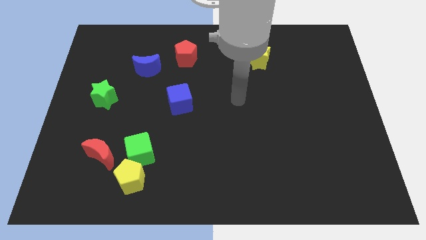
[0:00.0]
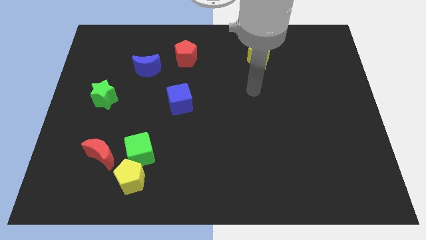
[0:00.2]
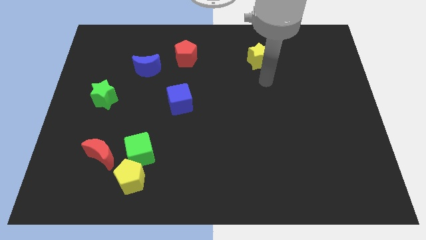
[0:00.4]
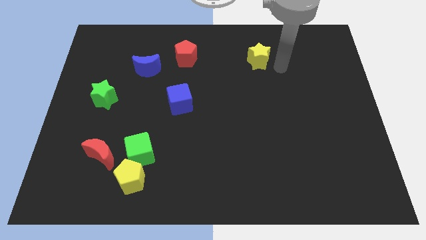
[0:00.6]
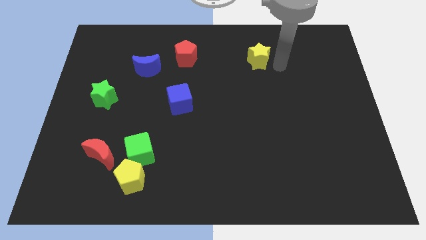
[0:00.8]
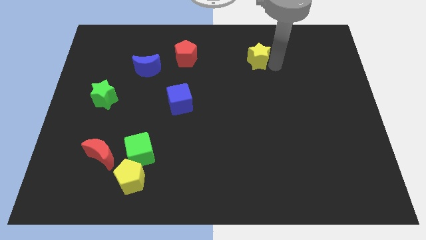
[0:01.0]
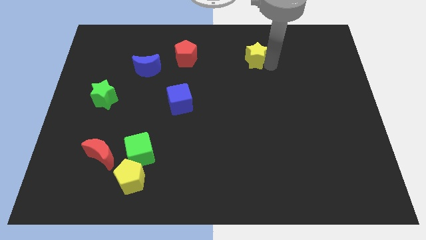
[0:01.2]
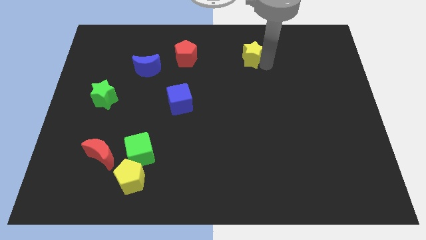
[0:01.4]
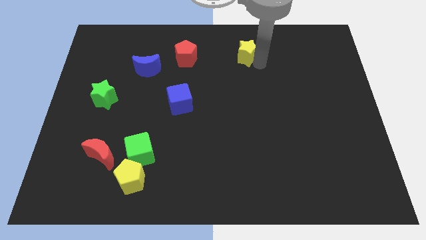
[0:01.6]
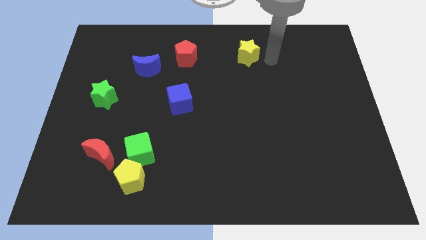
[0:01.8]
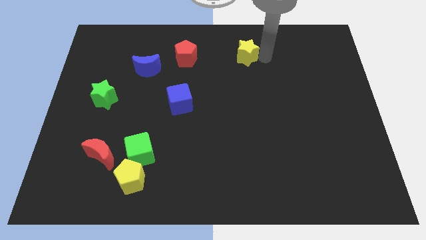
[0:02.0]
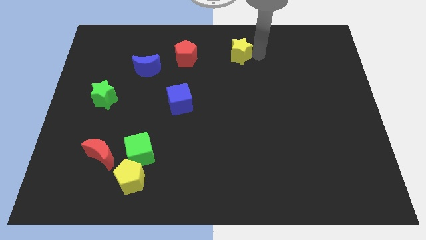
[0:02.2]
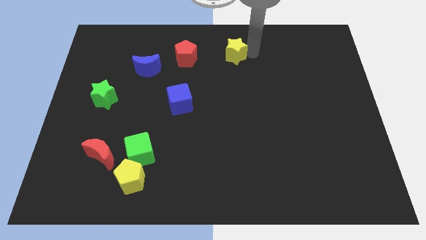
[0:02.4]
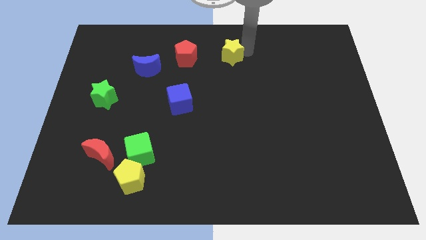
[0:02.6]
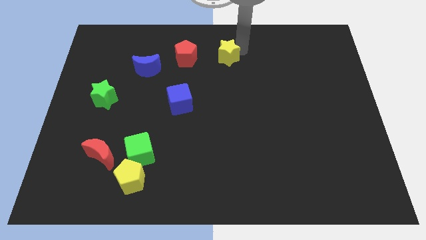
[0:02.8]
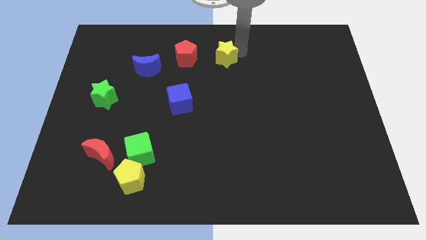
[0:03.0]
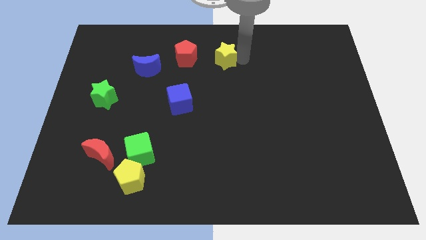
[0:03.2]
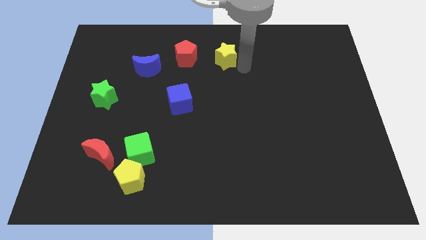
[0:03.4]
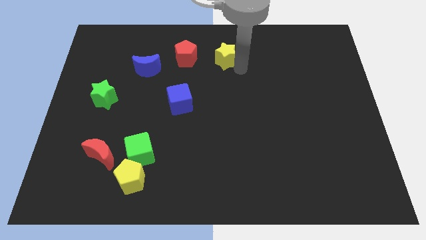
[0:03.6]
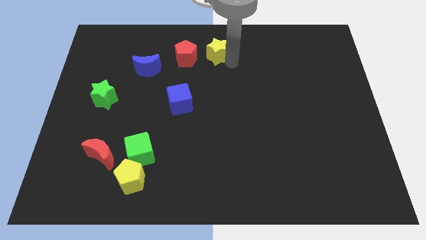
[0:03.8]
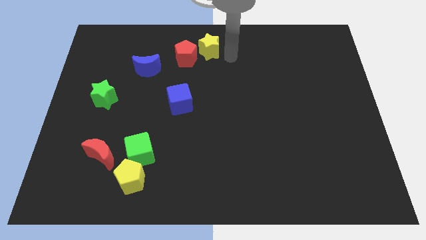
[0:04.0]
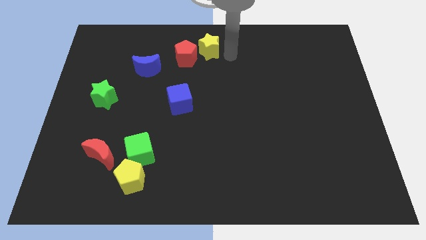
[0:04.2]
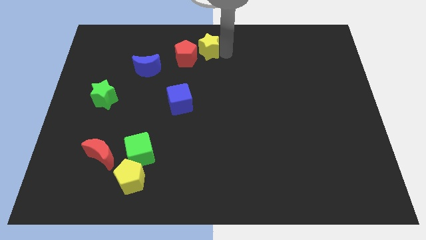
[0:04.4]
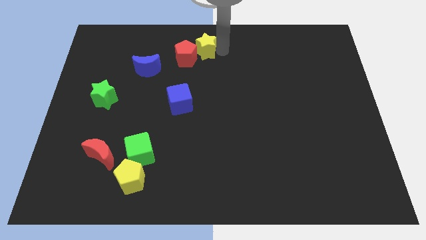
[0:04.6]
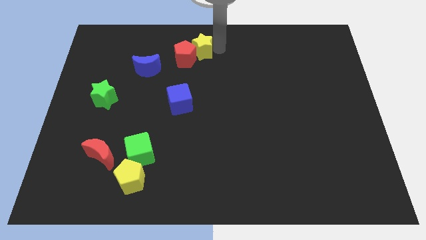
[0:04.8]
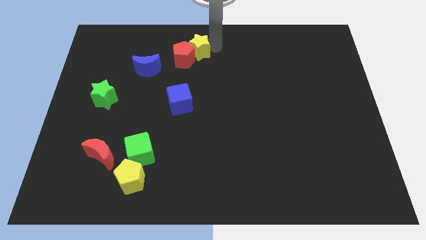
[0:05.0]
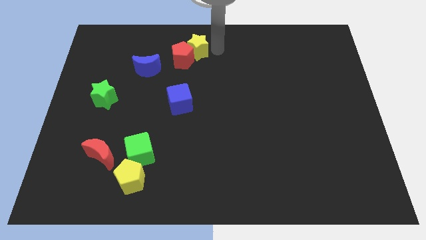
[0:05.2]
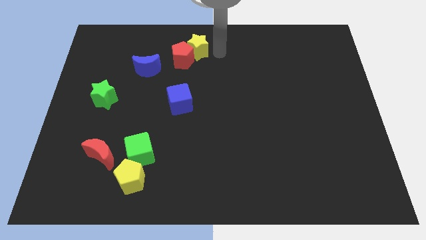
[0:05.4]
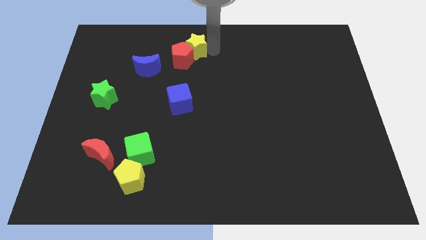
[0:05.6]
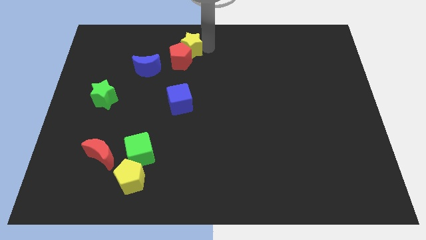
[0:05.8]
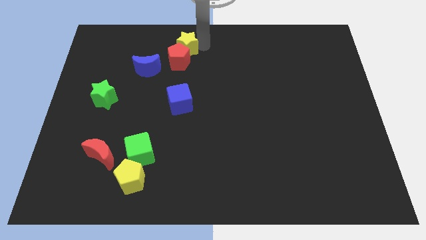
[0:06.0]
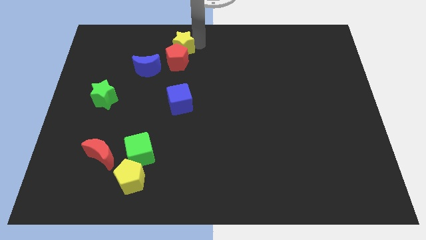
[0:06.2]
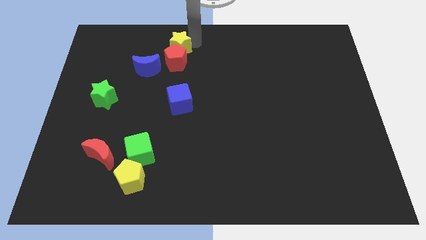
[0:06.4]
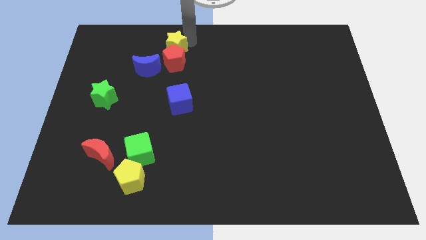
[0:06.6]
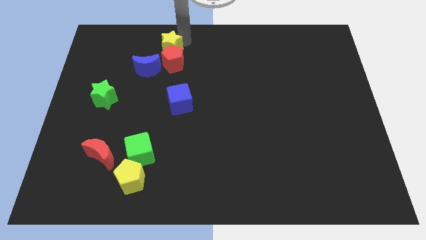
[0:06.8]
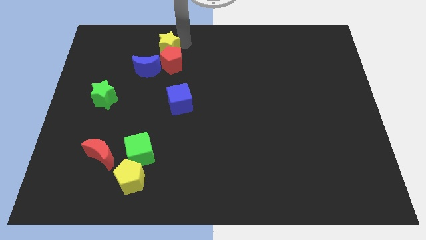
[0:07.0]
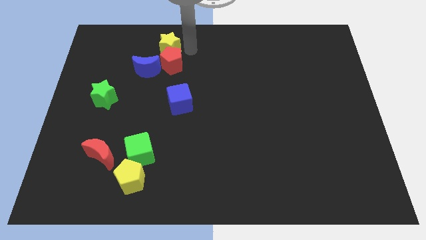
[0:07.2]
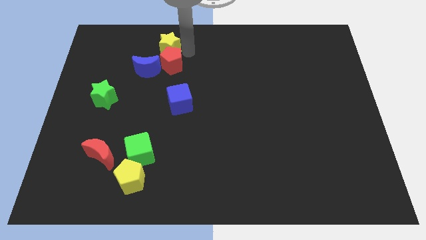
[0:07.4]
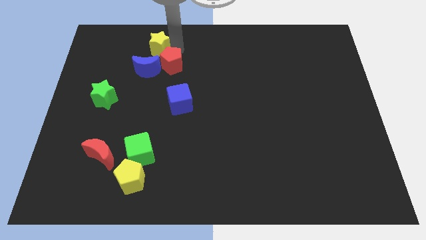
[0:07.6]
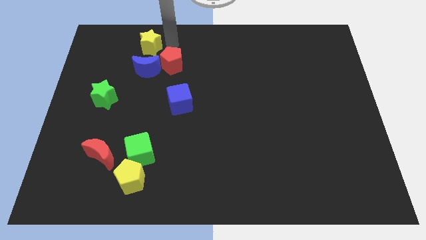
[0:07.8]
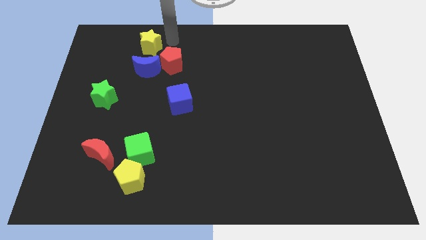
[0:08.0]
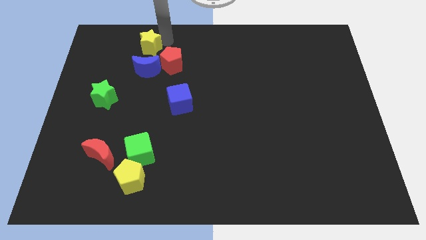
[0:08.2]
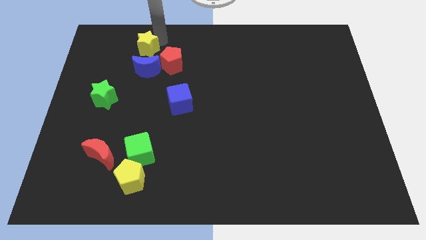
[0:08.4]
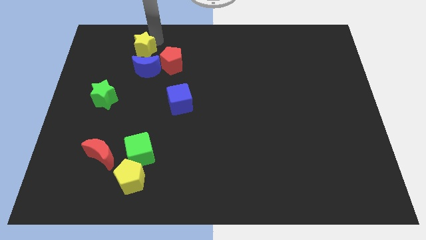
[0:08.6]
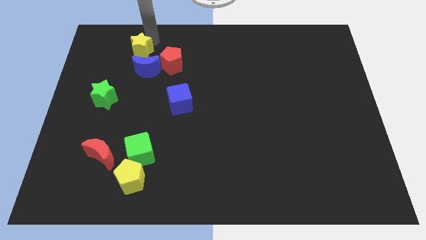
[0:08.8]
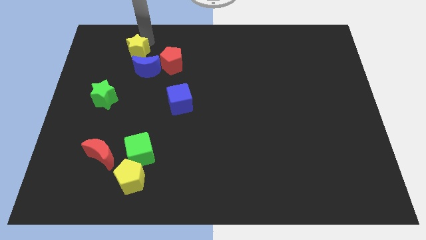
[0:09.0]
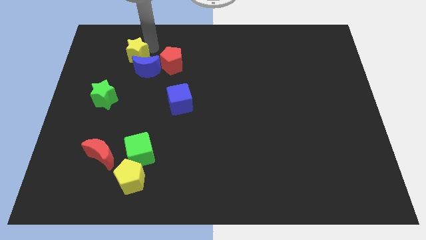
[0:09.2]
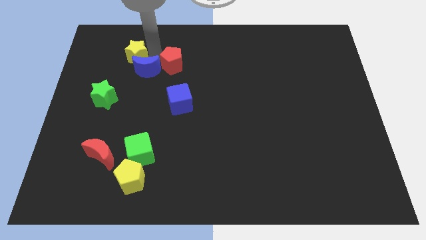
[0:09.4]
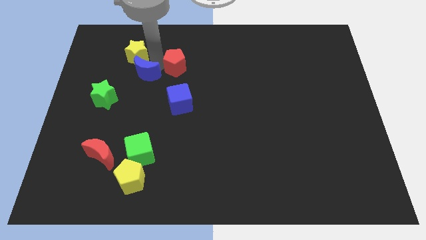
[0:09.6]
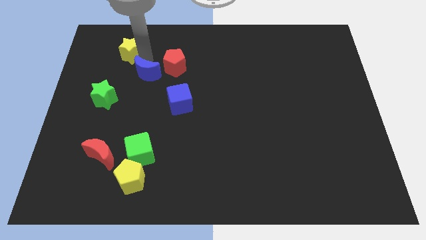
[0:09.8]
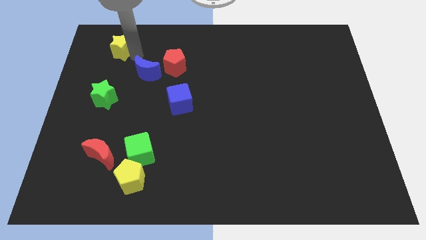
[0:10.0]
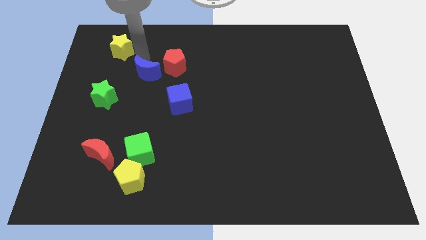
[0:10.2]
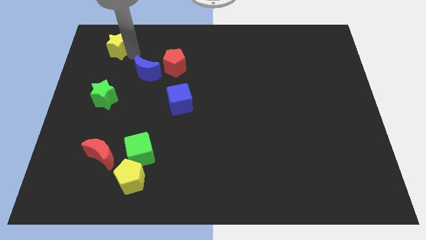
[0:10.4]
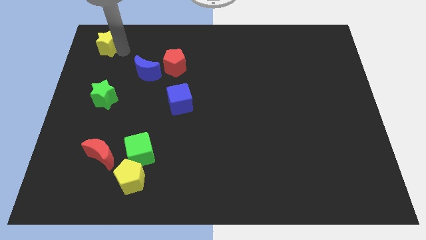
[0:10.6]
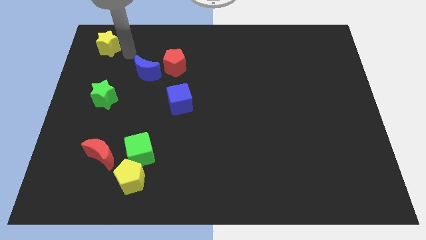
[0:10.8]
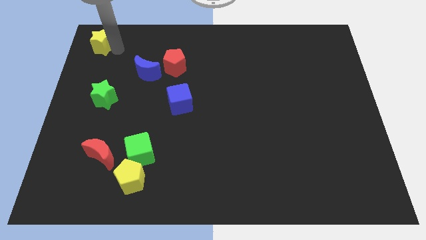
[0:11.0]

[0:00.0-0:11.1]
slide the yellow star to the top left corner
